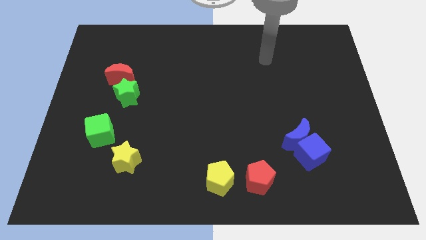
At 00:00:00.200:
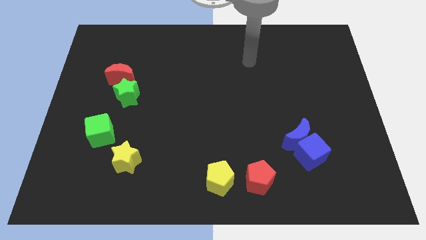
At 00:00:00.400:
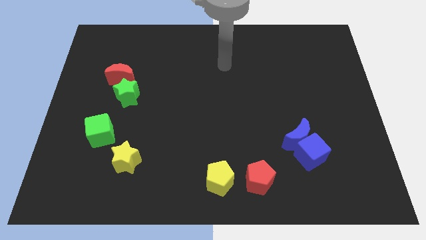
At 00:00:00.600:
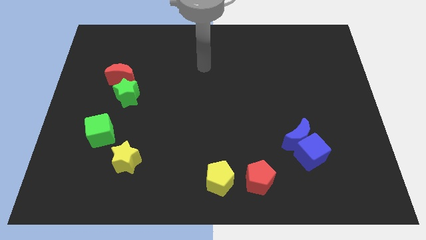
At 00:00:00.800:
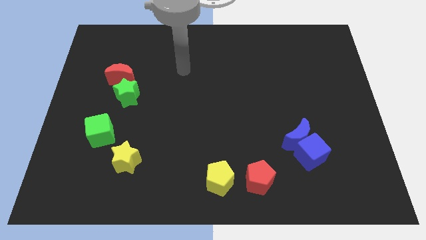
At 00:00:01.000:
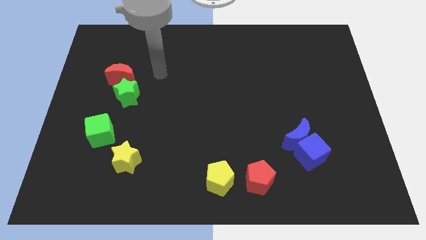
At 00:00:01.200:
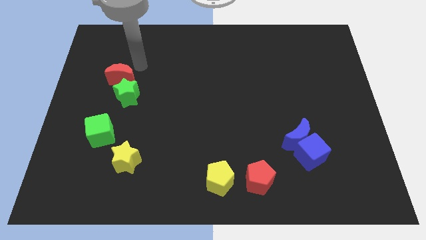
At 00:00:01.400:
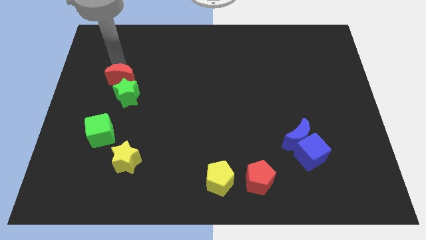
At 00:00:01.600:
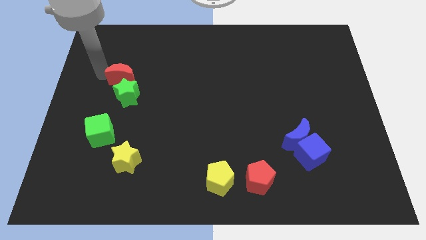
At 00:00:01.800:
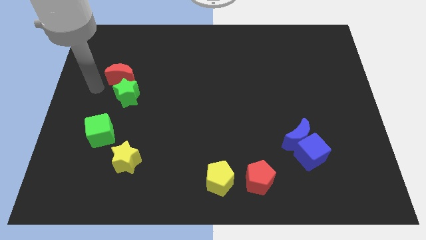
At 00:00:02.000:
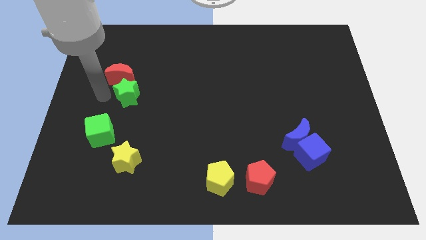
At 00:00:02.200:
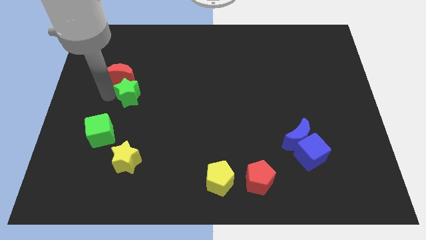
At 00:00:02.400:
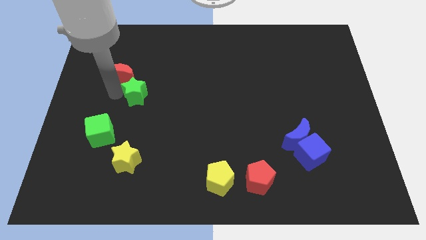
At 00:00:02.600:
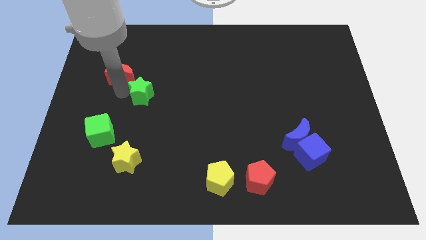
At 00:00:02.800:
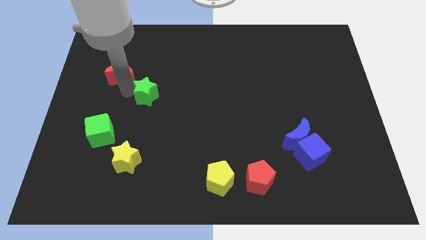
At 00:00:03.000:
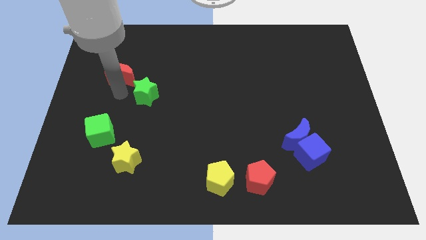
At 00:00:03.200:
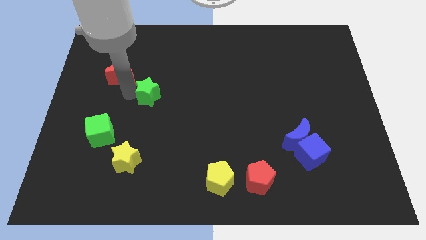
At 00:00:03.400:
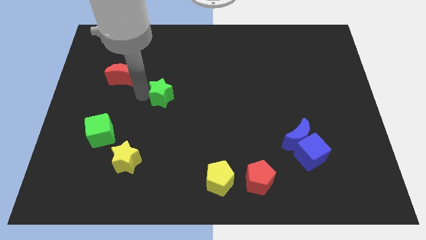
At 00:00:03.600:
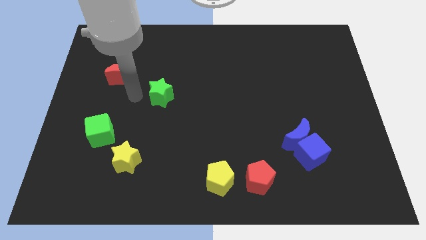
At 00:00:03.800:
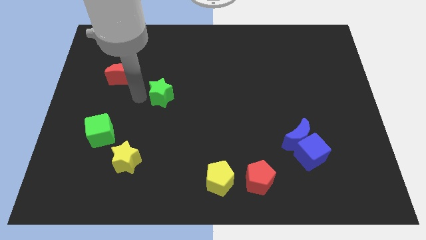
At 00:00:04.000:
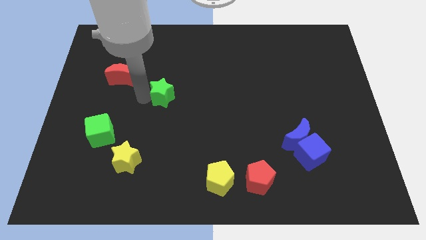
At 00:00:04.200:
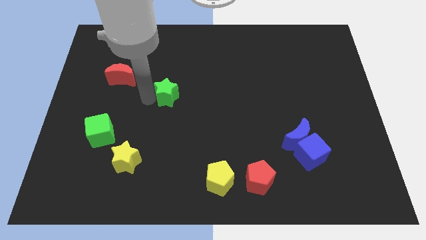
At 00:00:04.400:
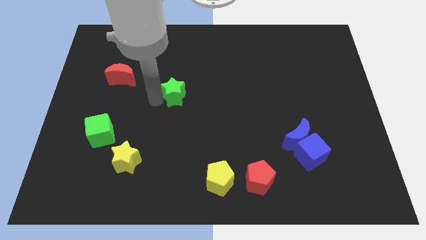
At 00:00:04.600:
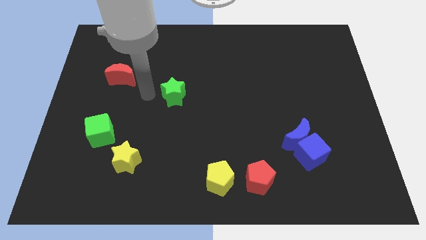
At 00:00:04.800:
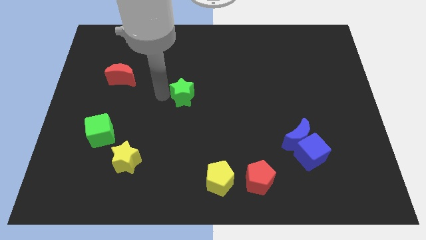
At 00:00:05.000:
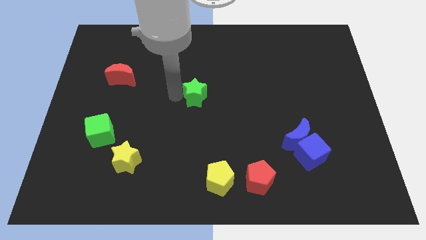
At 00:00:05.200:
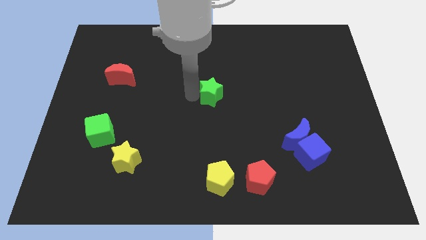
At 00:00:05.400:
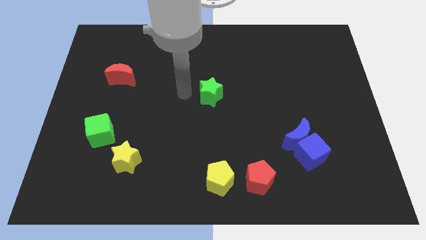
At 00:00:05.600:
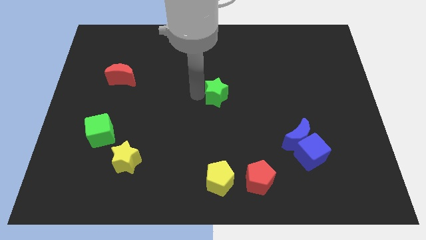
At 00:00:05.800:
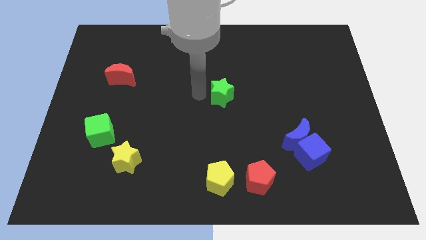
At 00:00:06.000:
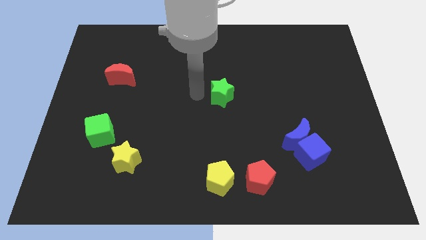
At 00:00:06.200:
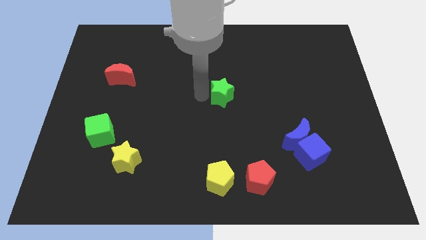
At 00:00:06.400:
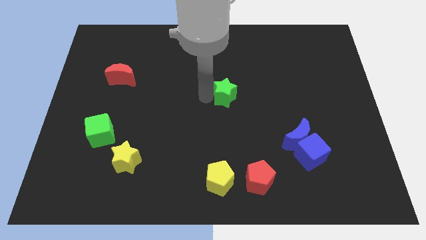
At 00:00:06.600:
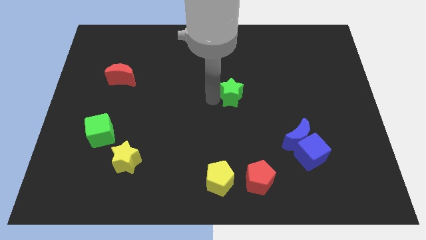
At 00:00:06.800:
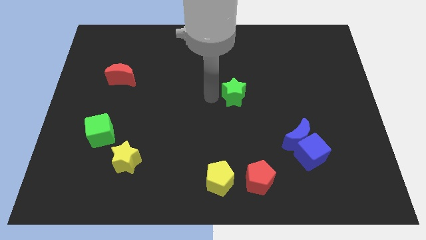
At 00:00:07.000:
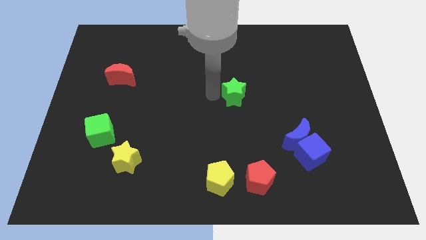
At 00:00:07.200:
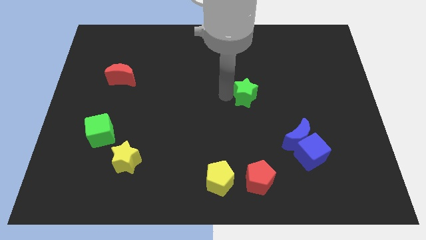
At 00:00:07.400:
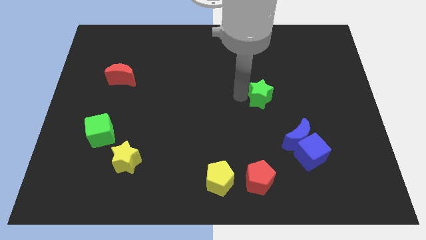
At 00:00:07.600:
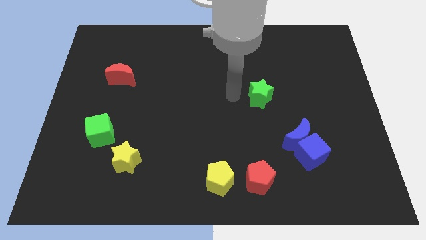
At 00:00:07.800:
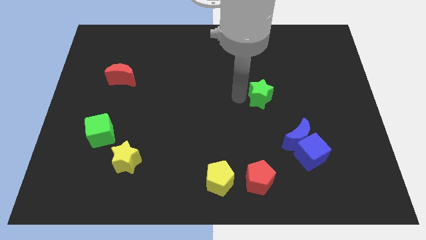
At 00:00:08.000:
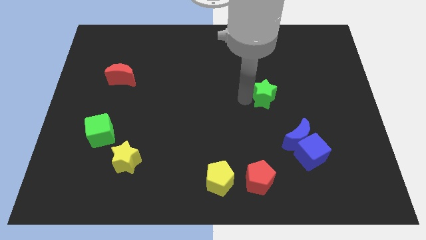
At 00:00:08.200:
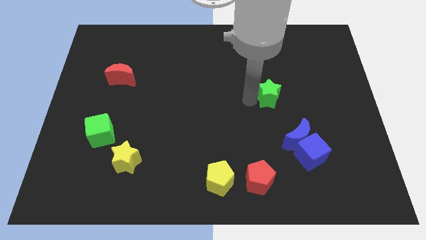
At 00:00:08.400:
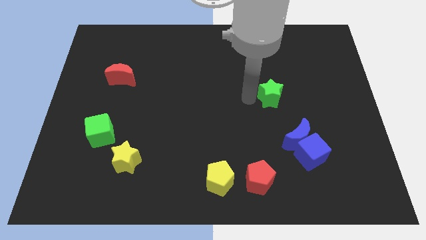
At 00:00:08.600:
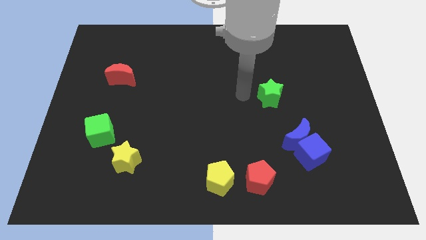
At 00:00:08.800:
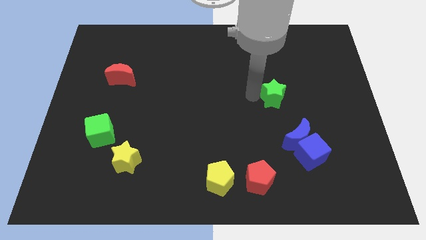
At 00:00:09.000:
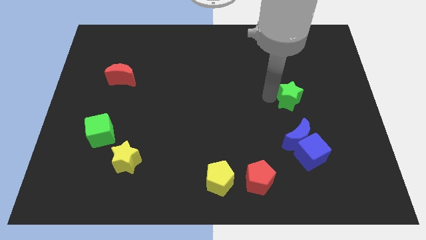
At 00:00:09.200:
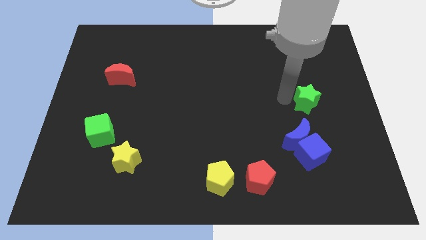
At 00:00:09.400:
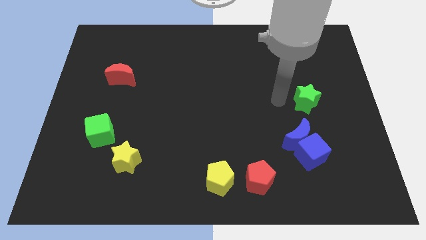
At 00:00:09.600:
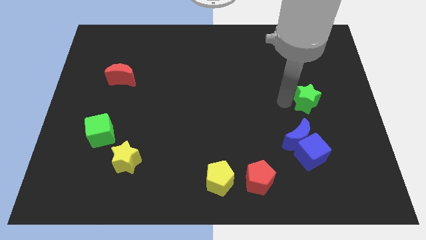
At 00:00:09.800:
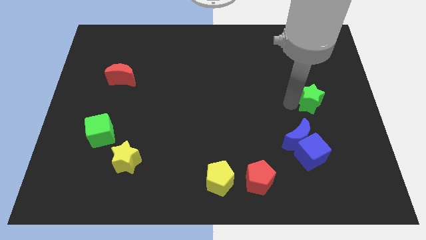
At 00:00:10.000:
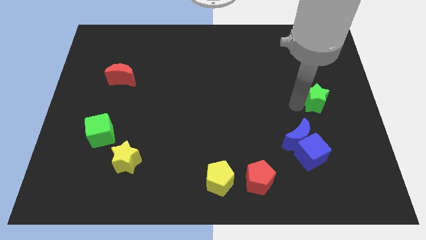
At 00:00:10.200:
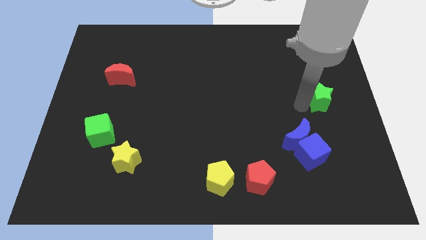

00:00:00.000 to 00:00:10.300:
push the green star to the right side of the board
